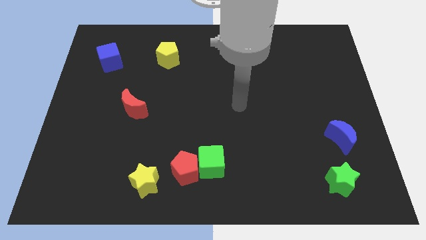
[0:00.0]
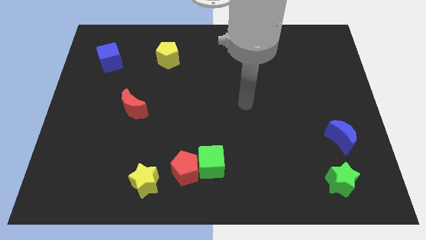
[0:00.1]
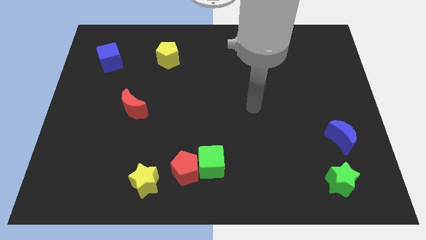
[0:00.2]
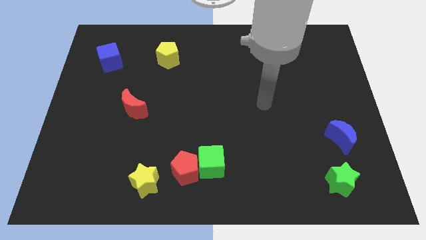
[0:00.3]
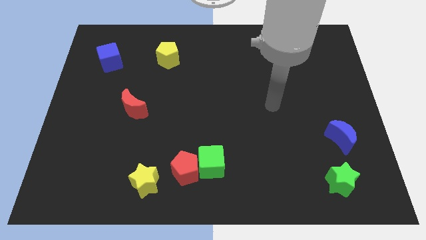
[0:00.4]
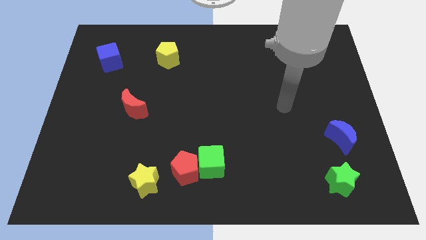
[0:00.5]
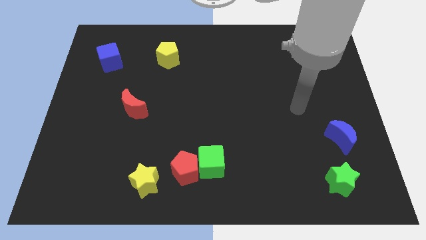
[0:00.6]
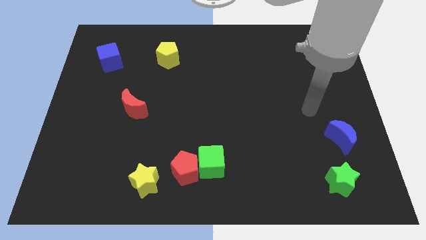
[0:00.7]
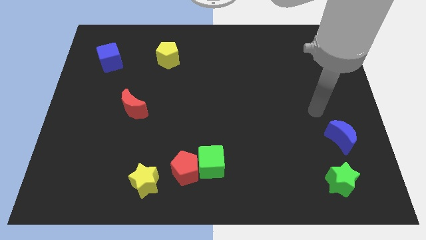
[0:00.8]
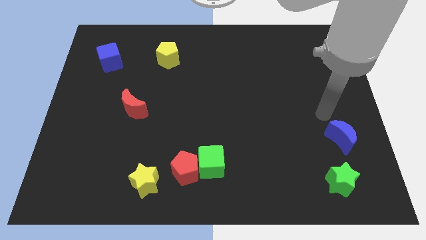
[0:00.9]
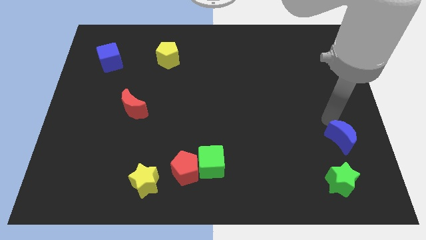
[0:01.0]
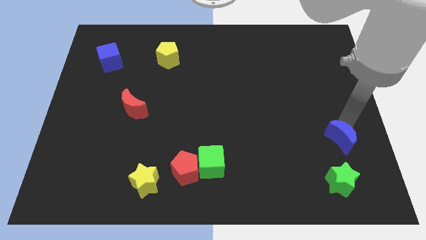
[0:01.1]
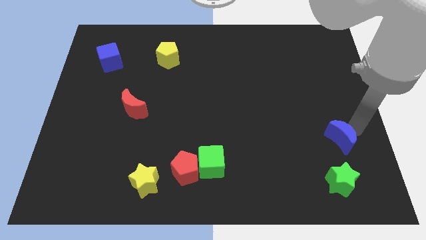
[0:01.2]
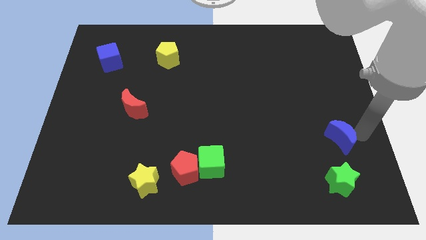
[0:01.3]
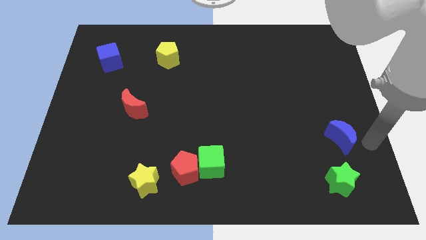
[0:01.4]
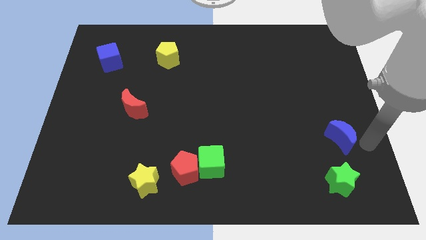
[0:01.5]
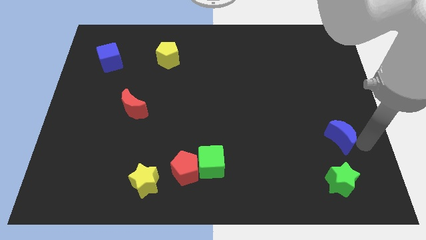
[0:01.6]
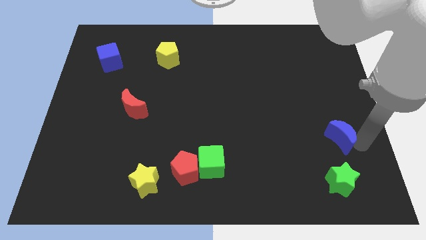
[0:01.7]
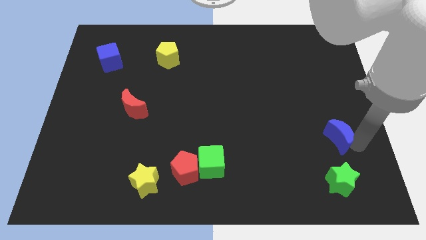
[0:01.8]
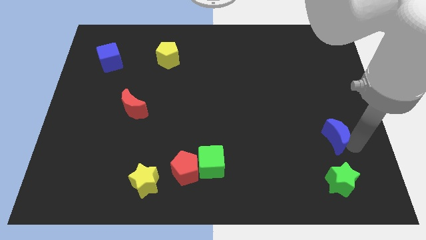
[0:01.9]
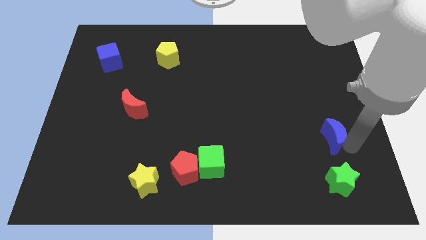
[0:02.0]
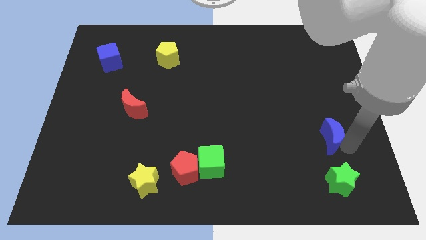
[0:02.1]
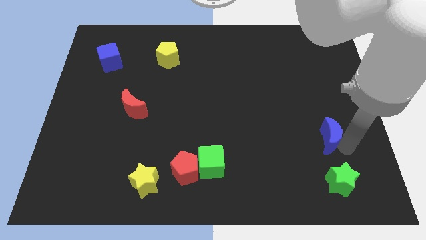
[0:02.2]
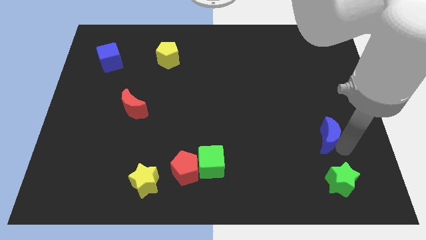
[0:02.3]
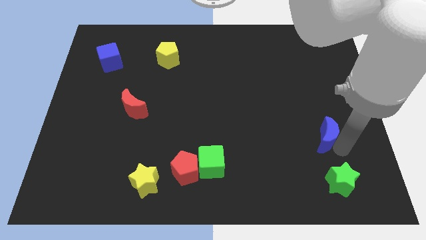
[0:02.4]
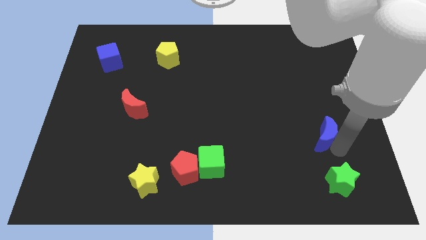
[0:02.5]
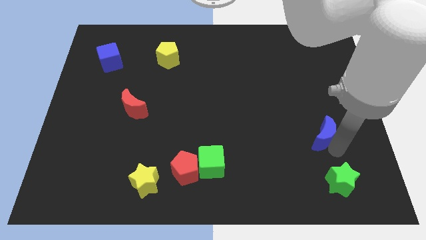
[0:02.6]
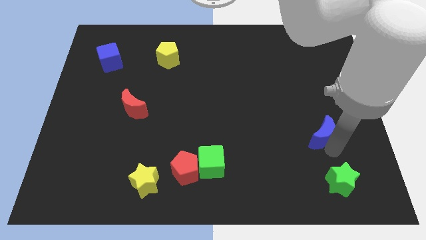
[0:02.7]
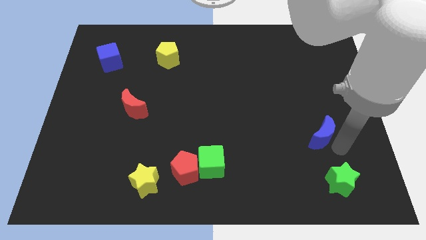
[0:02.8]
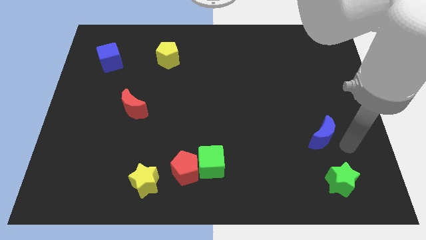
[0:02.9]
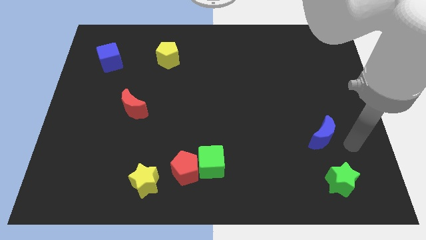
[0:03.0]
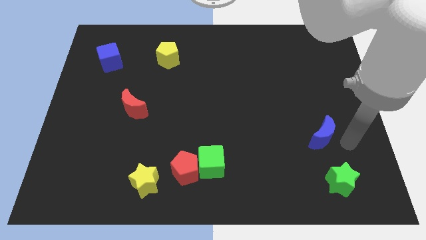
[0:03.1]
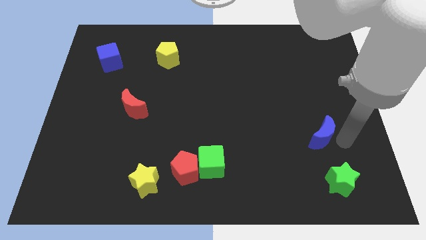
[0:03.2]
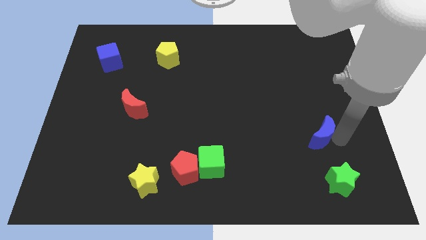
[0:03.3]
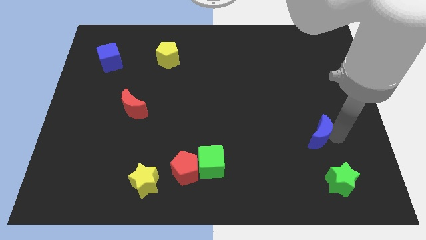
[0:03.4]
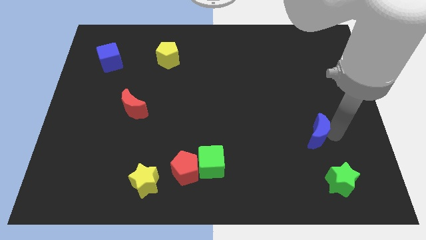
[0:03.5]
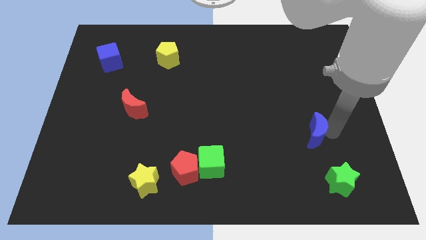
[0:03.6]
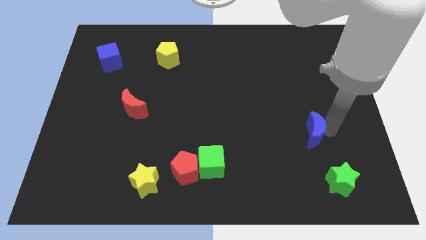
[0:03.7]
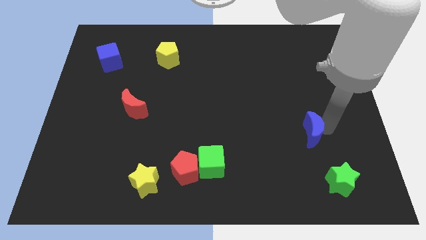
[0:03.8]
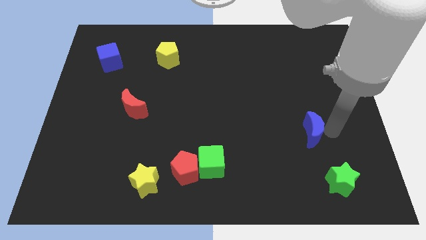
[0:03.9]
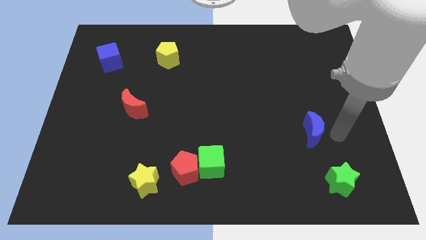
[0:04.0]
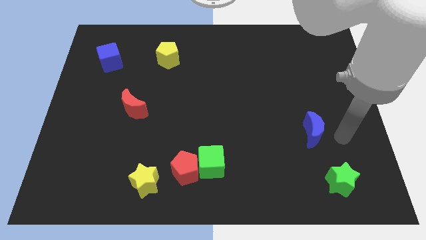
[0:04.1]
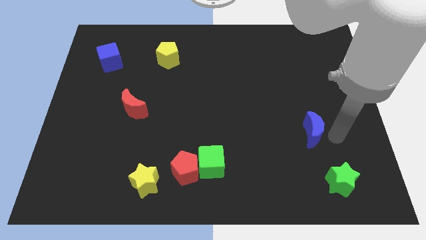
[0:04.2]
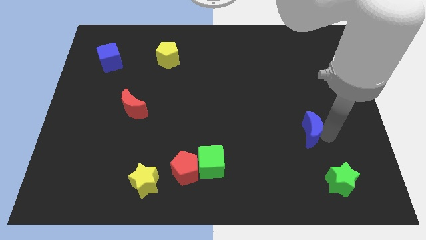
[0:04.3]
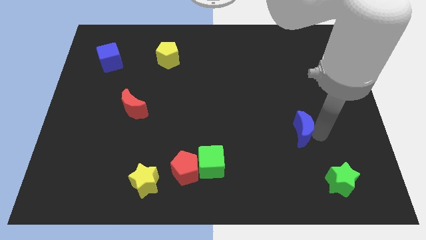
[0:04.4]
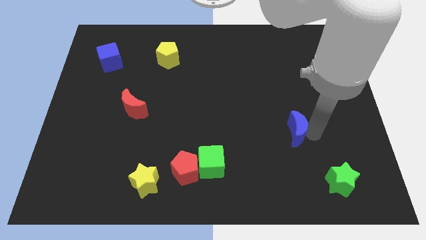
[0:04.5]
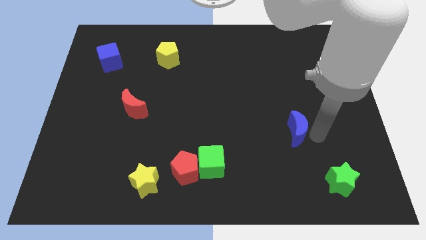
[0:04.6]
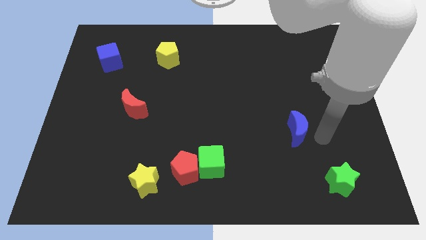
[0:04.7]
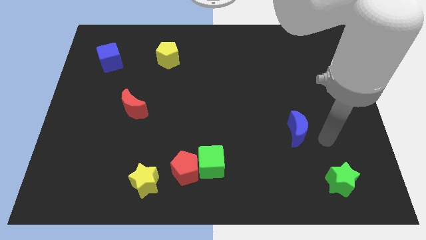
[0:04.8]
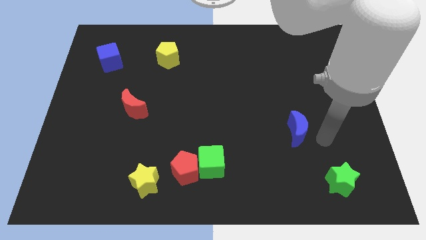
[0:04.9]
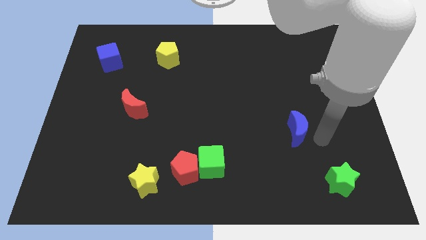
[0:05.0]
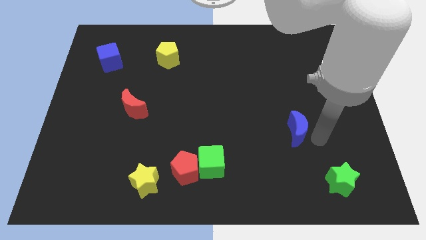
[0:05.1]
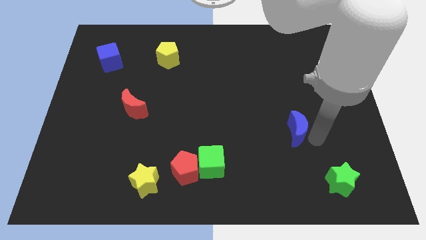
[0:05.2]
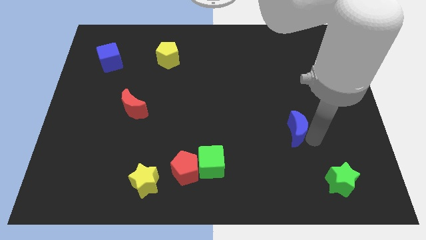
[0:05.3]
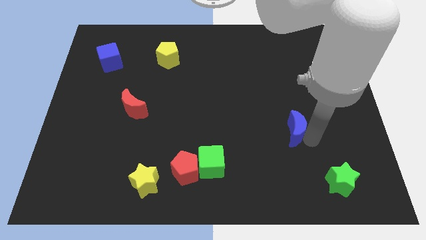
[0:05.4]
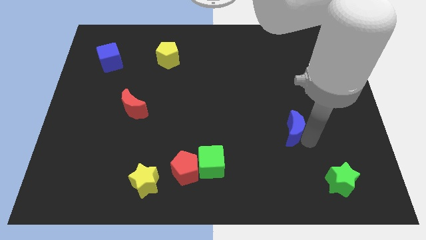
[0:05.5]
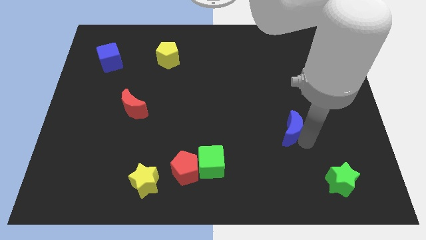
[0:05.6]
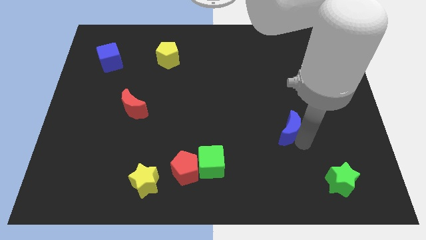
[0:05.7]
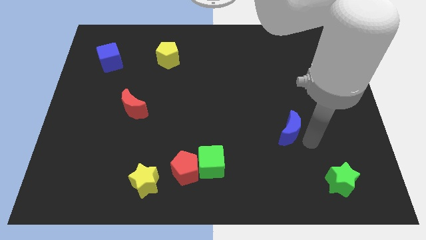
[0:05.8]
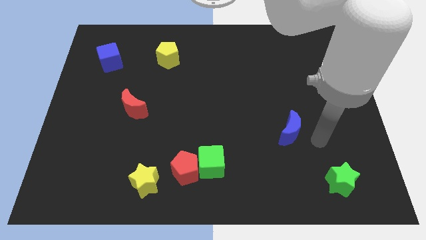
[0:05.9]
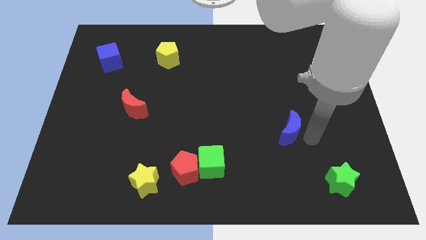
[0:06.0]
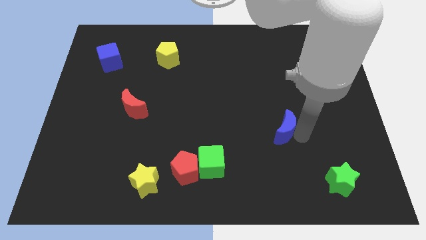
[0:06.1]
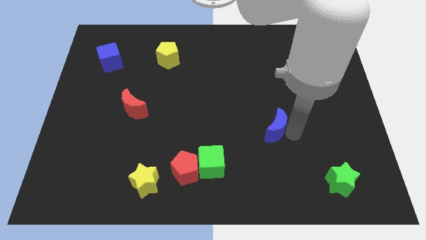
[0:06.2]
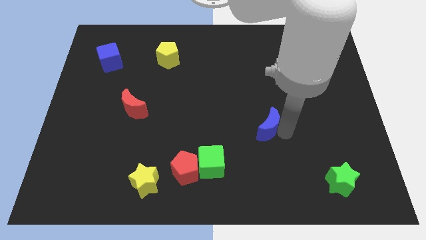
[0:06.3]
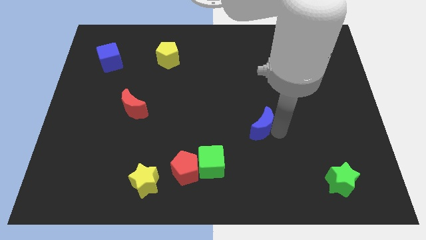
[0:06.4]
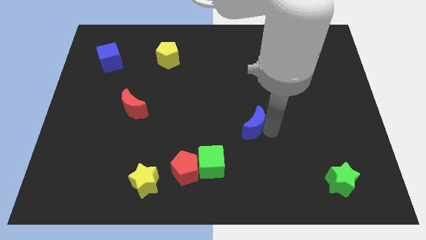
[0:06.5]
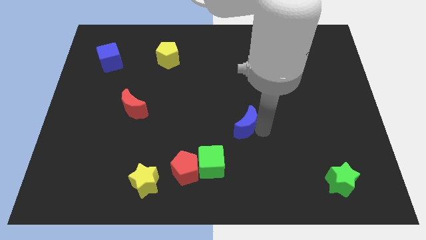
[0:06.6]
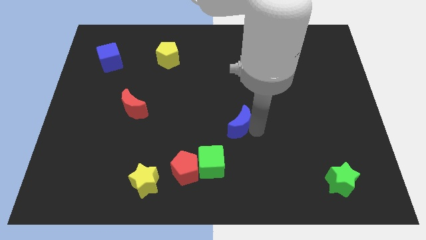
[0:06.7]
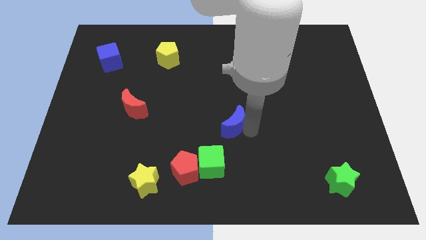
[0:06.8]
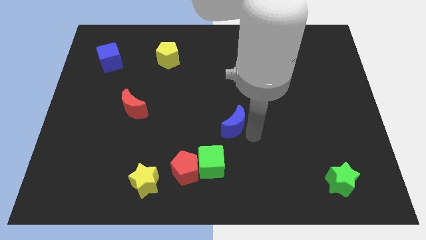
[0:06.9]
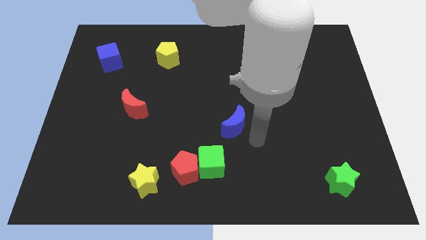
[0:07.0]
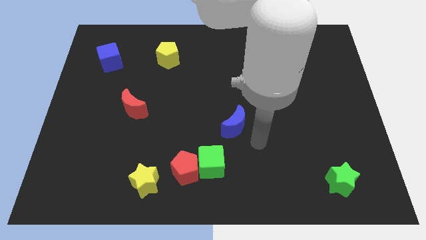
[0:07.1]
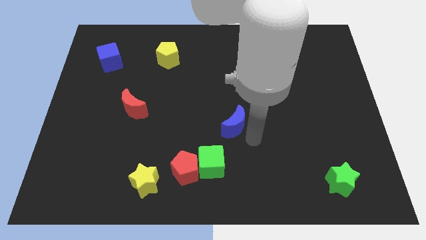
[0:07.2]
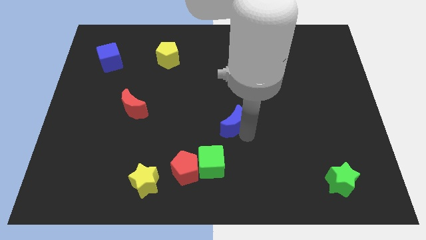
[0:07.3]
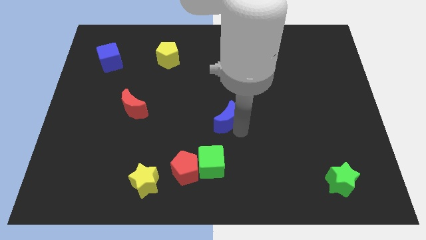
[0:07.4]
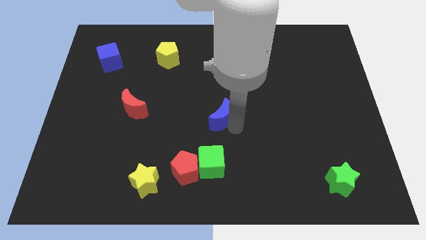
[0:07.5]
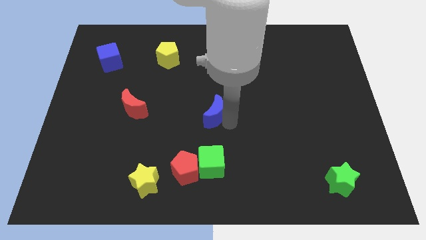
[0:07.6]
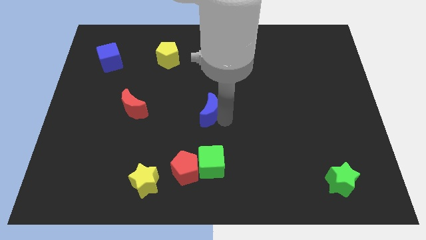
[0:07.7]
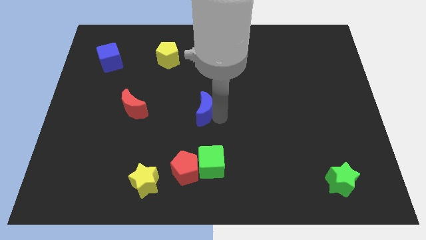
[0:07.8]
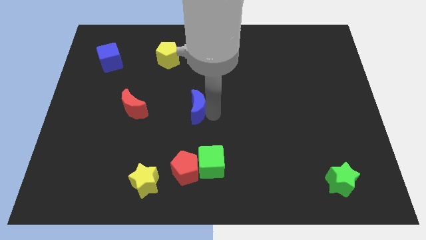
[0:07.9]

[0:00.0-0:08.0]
push the blue moon just right of the red moon
